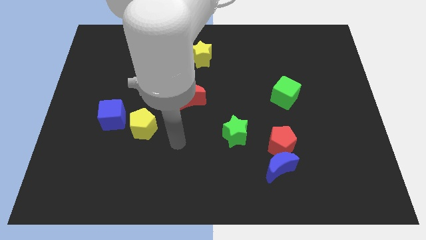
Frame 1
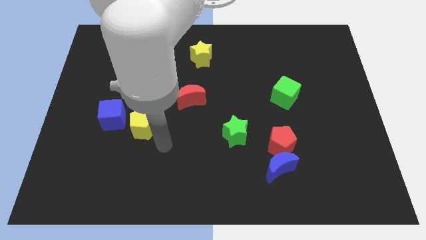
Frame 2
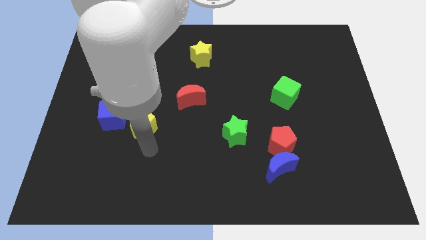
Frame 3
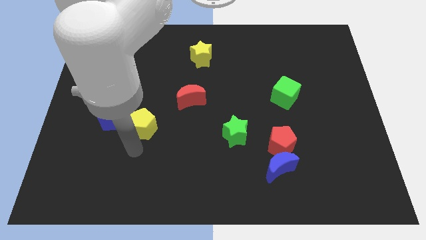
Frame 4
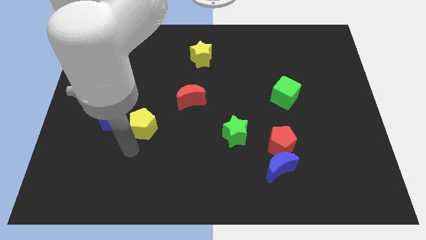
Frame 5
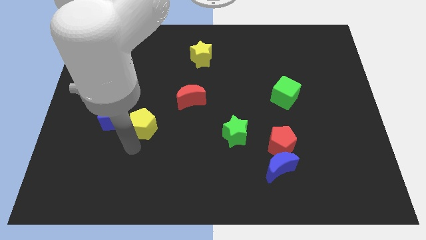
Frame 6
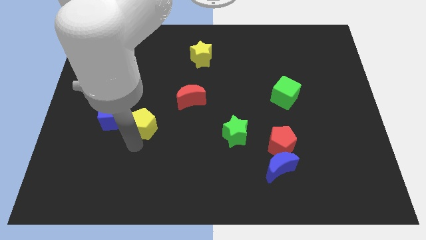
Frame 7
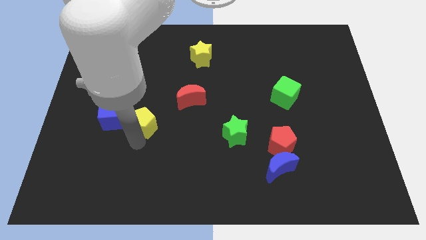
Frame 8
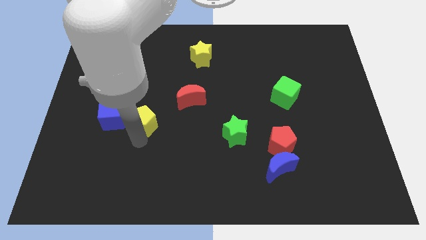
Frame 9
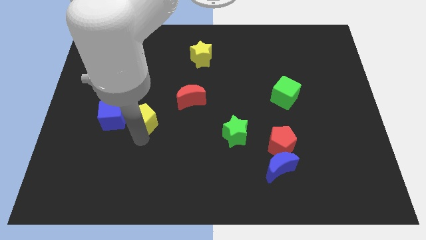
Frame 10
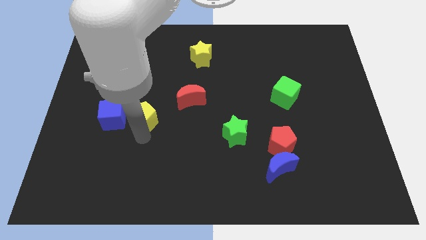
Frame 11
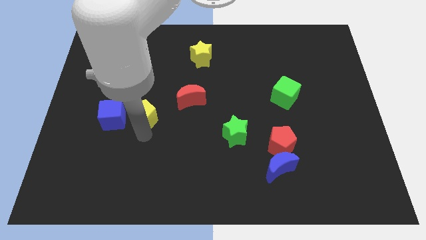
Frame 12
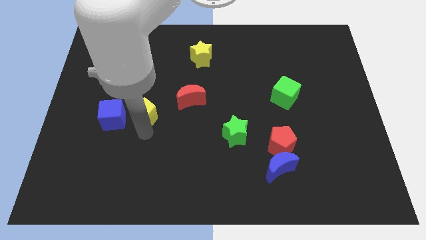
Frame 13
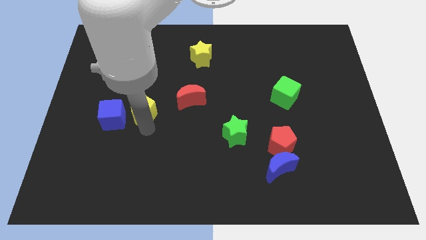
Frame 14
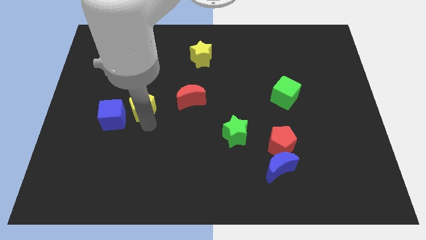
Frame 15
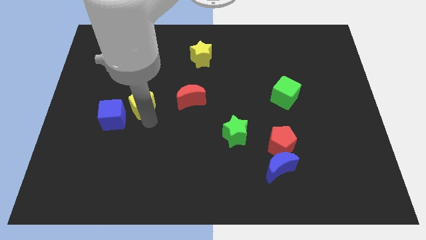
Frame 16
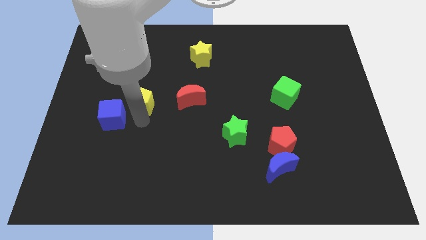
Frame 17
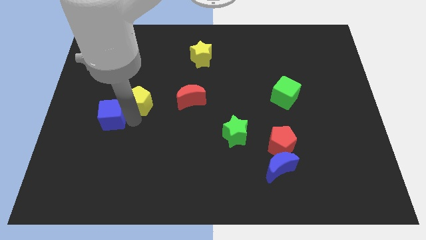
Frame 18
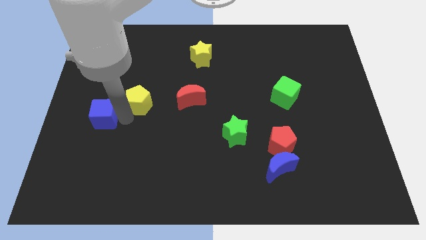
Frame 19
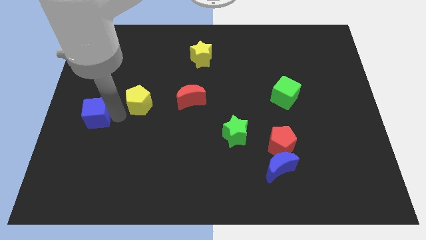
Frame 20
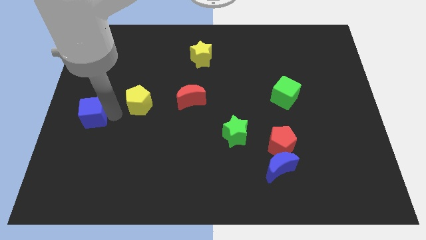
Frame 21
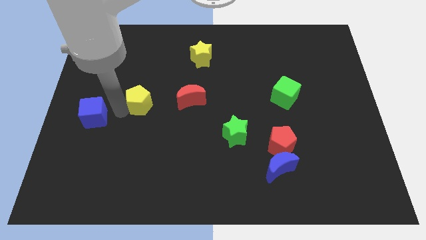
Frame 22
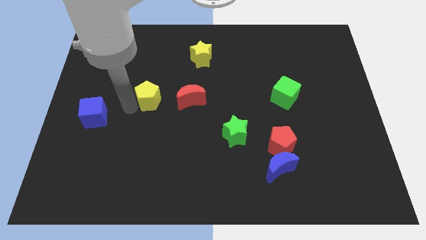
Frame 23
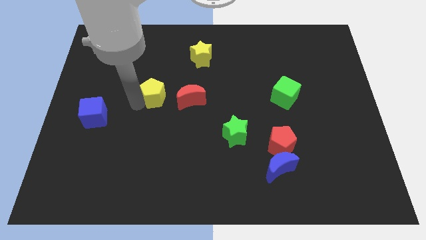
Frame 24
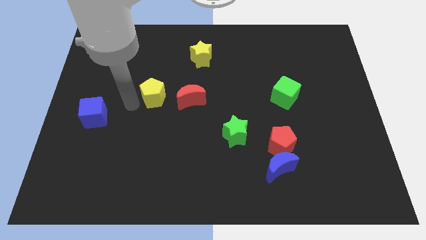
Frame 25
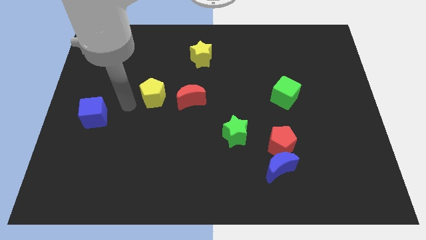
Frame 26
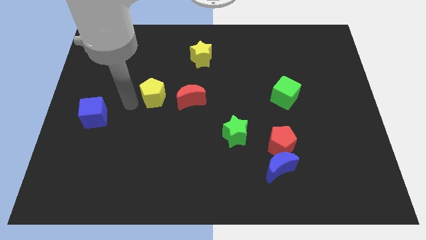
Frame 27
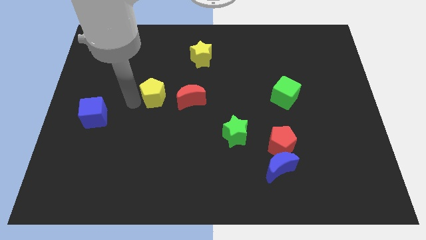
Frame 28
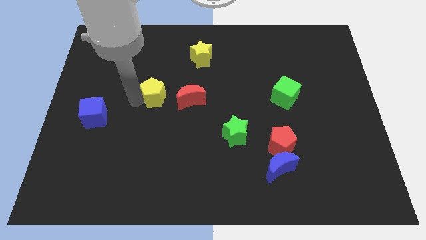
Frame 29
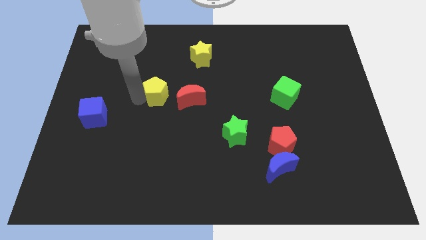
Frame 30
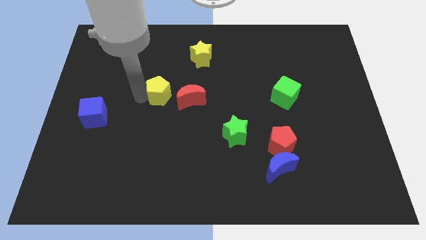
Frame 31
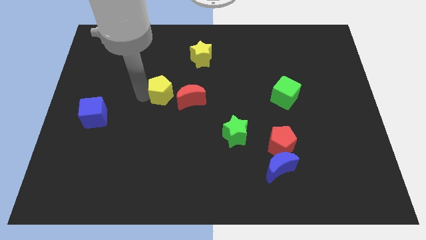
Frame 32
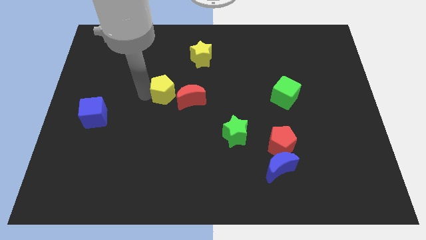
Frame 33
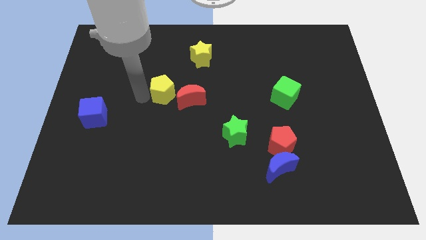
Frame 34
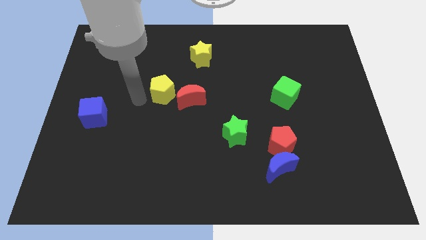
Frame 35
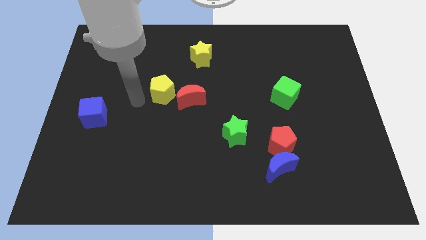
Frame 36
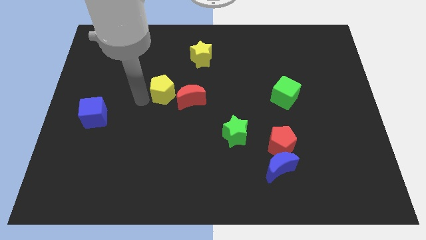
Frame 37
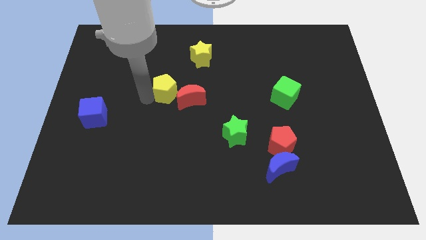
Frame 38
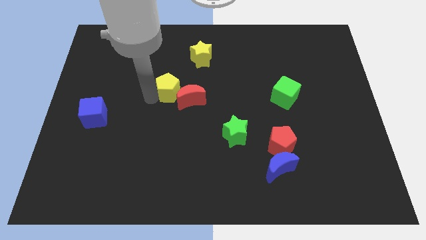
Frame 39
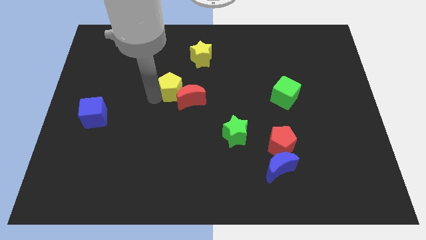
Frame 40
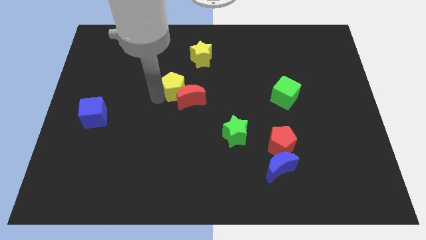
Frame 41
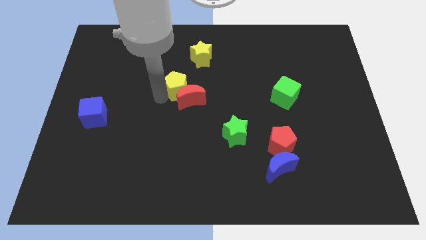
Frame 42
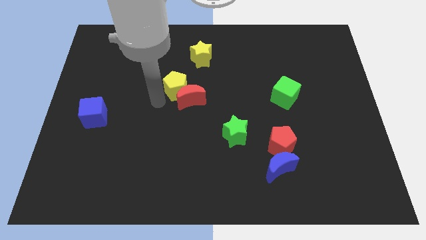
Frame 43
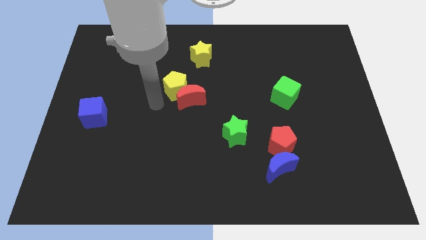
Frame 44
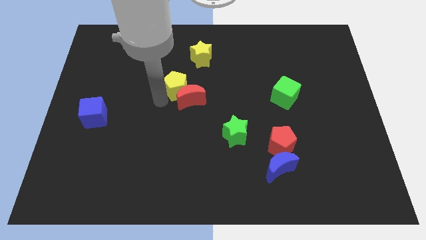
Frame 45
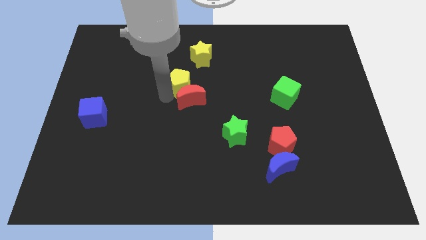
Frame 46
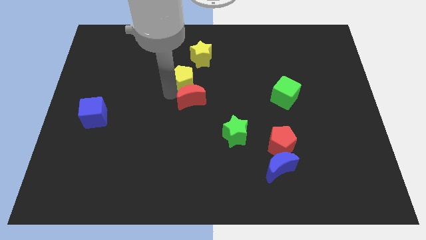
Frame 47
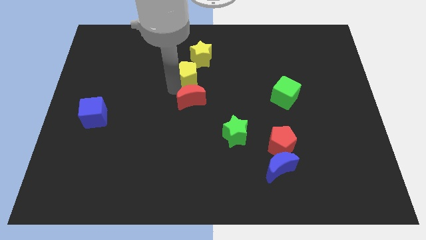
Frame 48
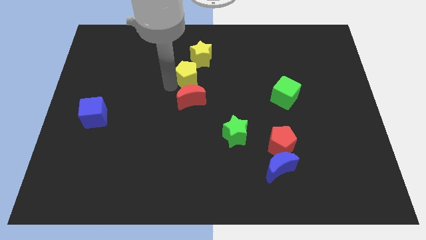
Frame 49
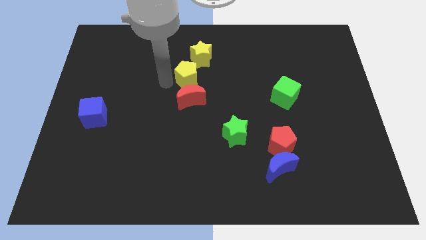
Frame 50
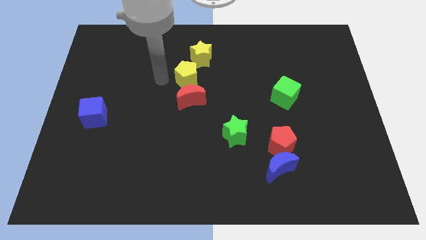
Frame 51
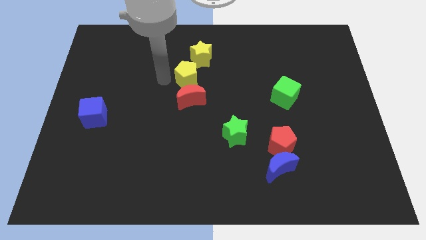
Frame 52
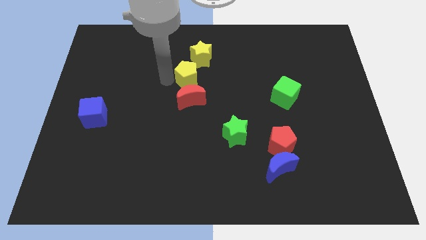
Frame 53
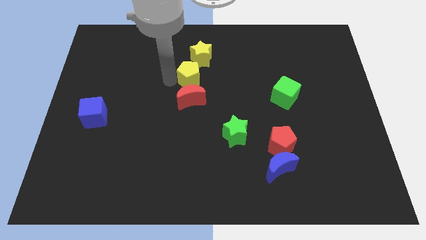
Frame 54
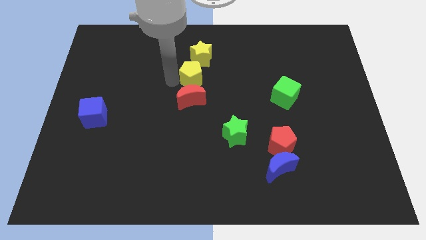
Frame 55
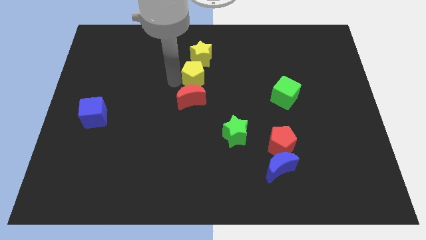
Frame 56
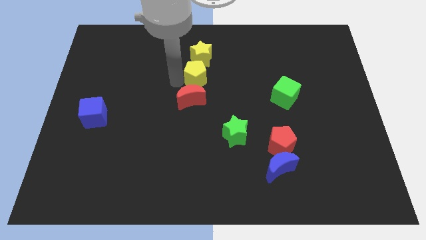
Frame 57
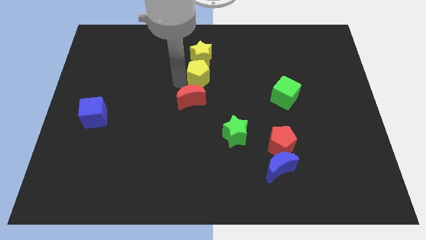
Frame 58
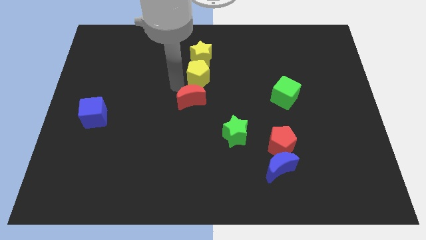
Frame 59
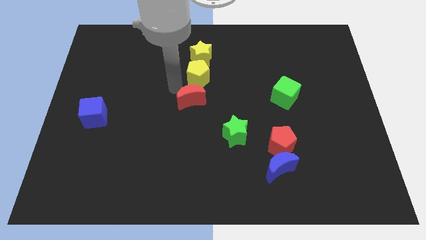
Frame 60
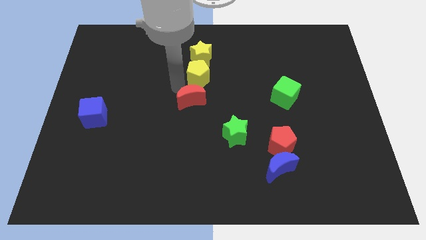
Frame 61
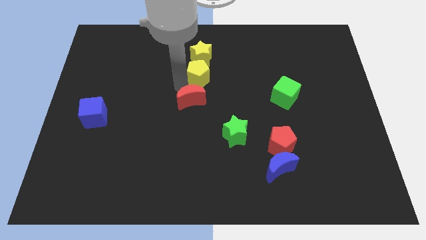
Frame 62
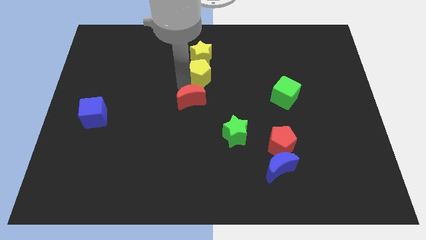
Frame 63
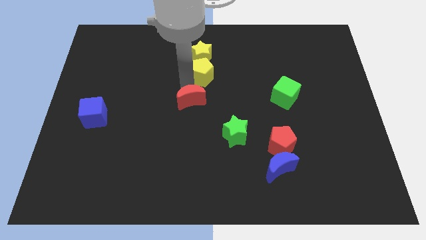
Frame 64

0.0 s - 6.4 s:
slide the yellow pentagon diagonally up and to the right

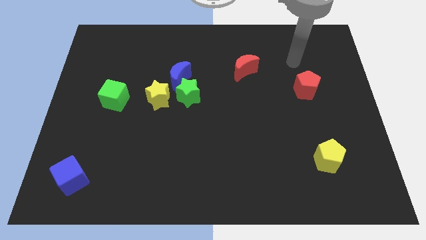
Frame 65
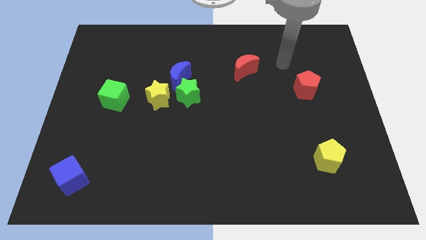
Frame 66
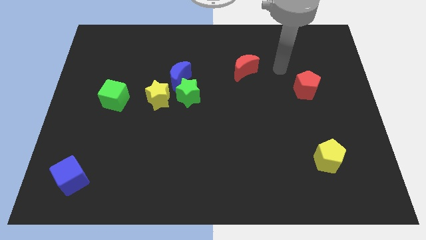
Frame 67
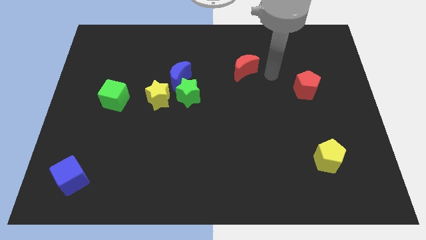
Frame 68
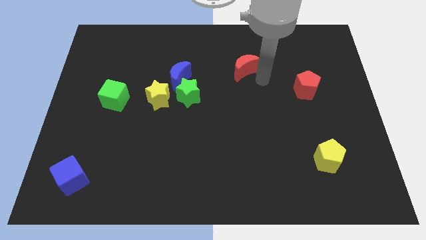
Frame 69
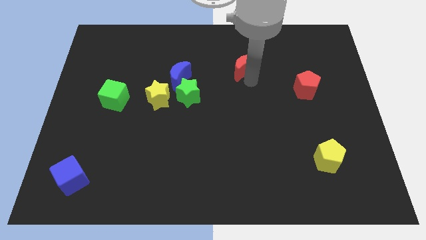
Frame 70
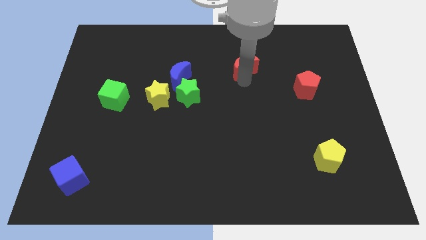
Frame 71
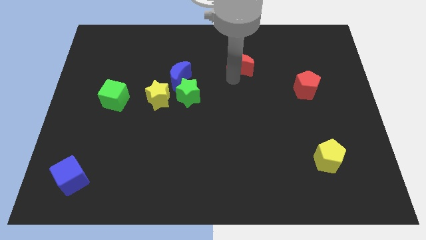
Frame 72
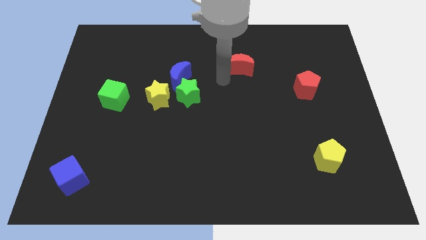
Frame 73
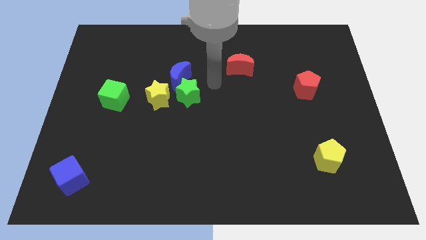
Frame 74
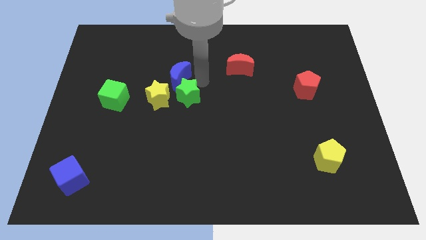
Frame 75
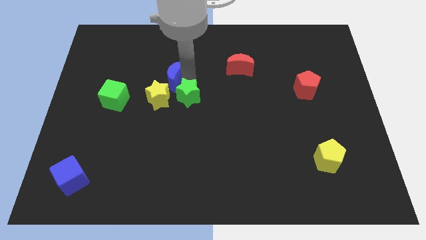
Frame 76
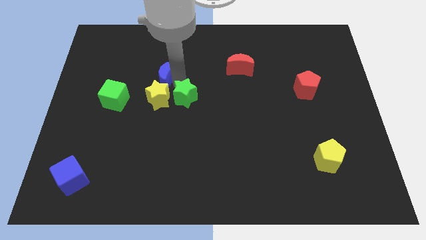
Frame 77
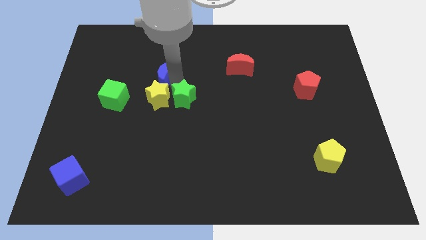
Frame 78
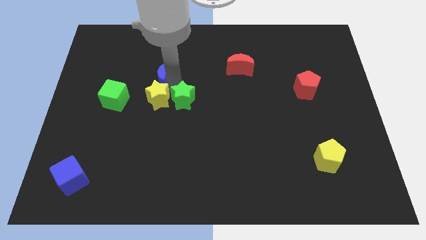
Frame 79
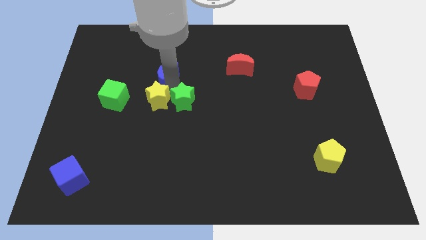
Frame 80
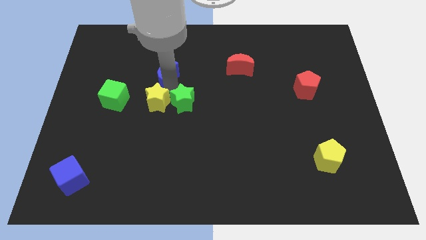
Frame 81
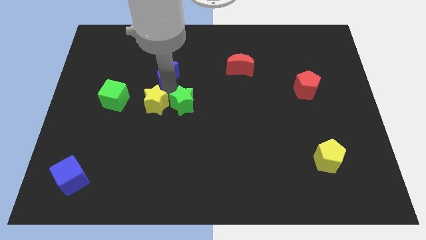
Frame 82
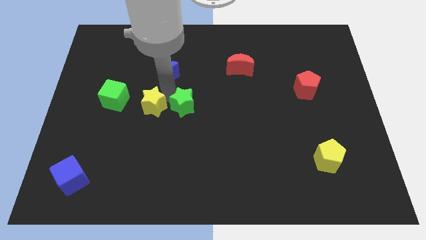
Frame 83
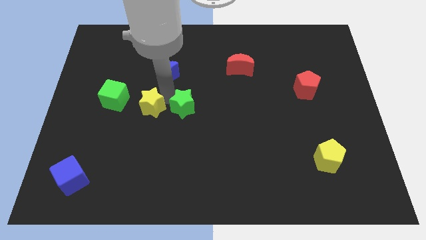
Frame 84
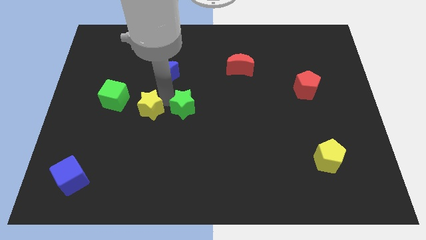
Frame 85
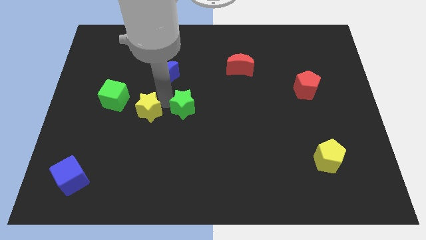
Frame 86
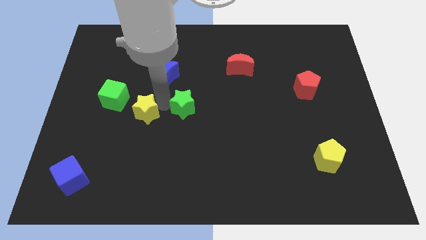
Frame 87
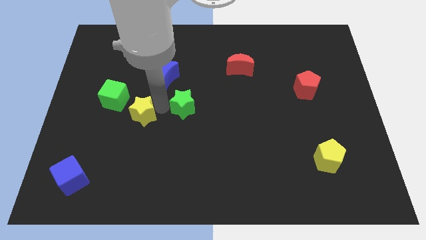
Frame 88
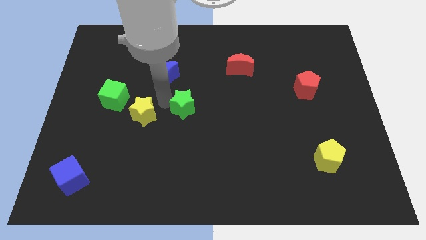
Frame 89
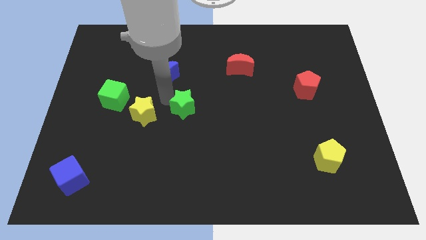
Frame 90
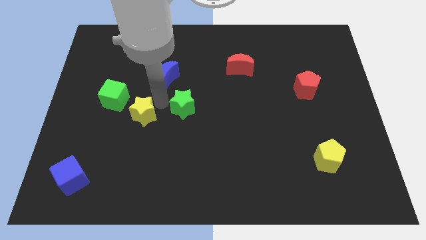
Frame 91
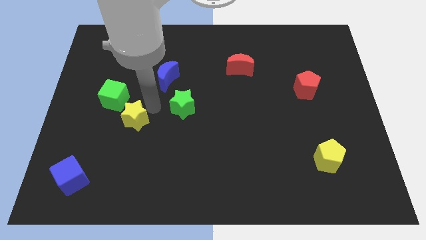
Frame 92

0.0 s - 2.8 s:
slide the yellow star a bit diagonally downwards and left
